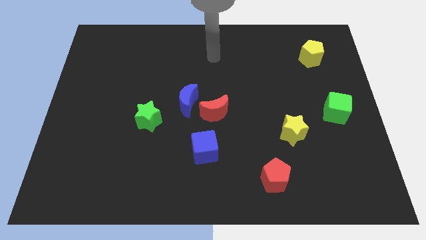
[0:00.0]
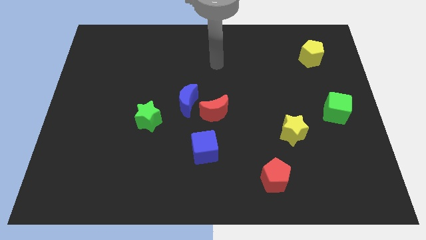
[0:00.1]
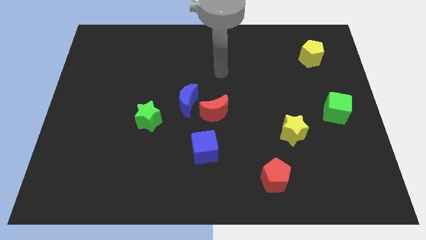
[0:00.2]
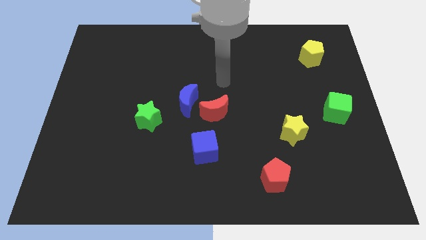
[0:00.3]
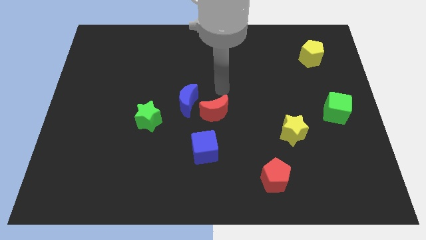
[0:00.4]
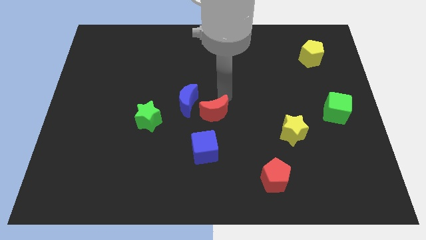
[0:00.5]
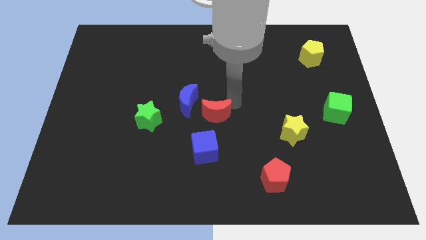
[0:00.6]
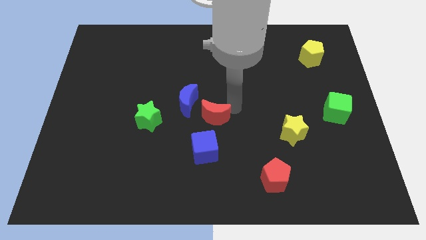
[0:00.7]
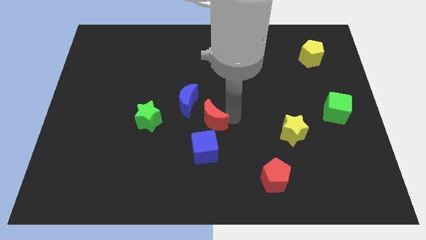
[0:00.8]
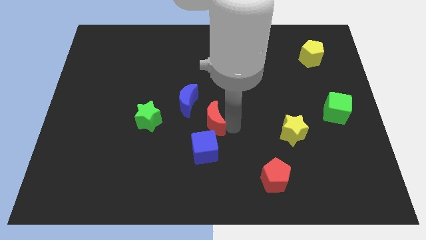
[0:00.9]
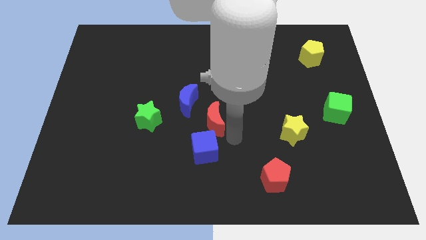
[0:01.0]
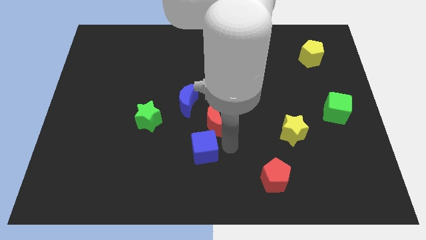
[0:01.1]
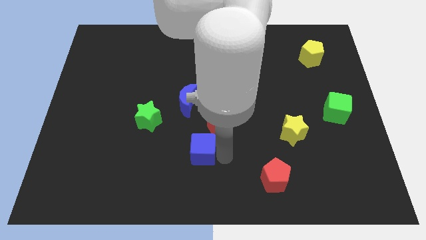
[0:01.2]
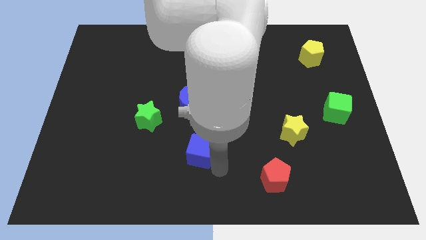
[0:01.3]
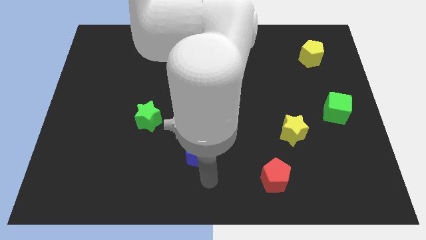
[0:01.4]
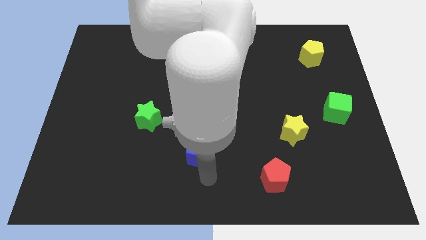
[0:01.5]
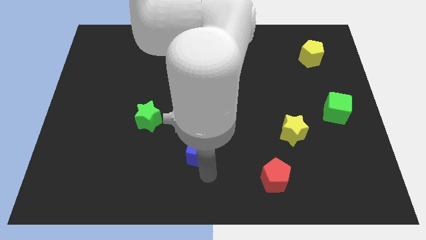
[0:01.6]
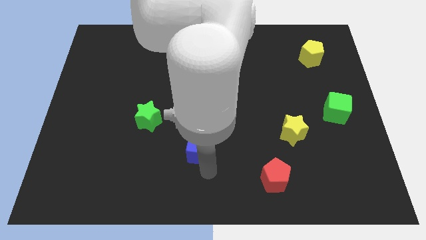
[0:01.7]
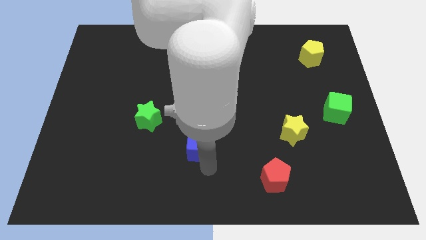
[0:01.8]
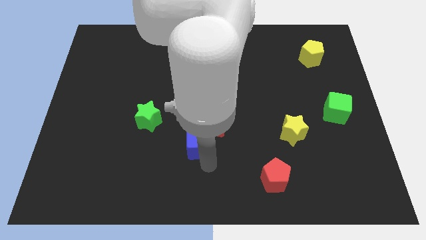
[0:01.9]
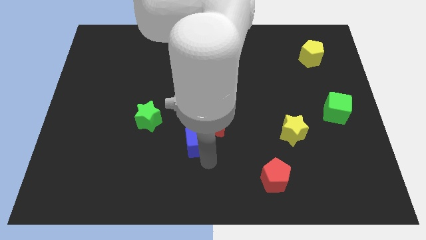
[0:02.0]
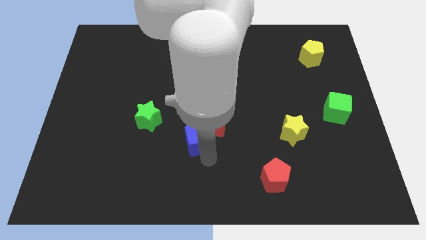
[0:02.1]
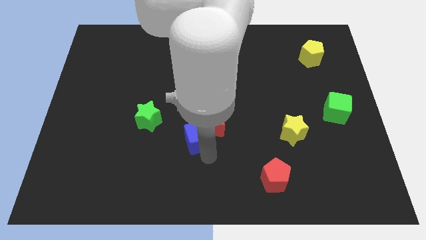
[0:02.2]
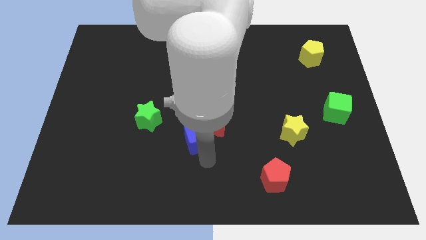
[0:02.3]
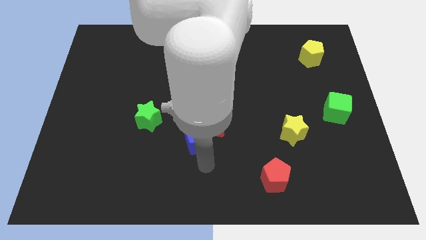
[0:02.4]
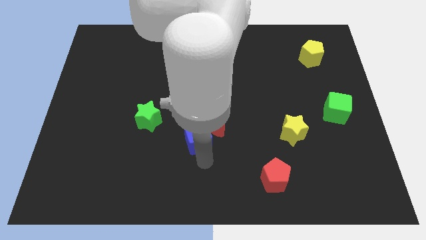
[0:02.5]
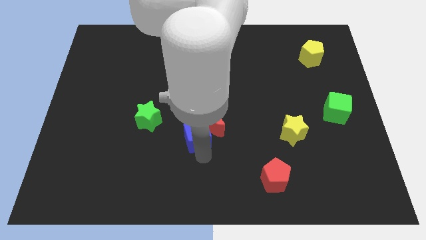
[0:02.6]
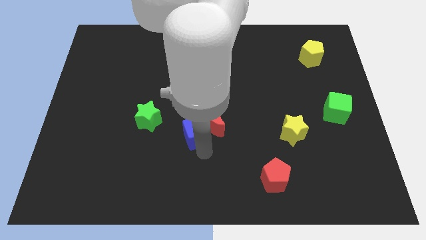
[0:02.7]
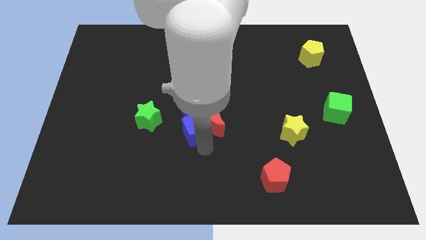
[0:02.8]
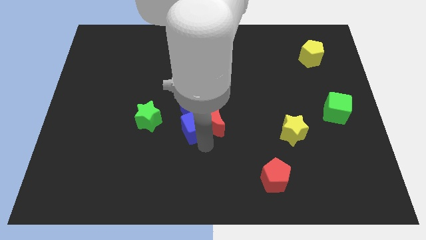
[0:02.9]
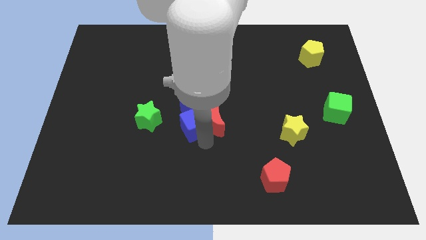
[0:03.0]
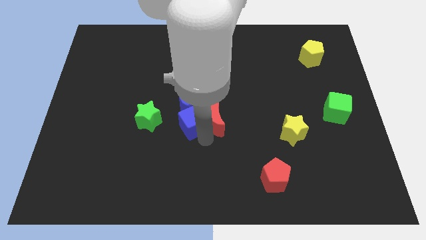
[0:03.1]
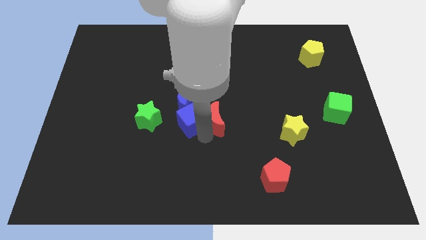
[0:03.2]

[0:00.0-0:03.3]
move the blue cube slightly upwards and then to the left

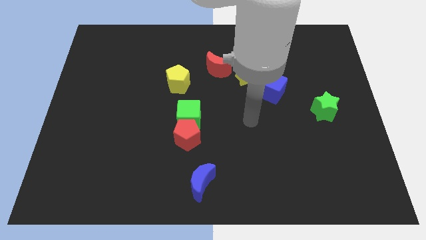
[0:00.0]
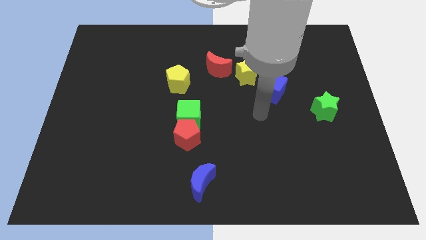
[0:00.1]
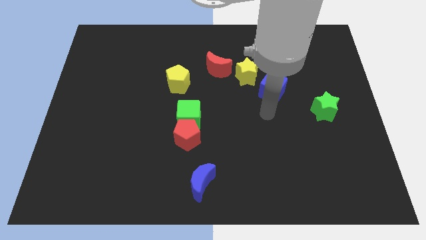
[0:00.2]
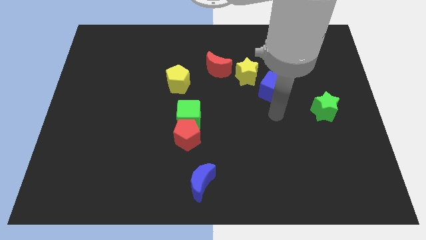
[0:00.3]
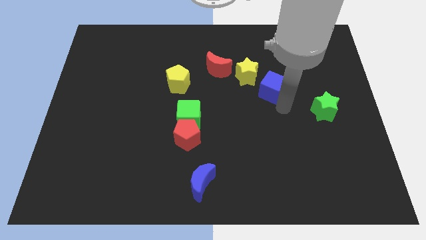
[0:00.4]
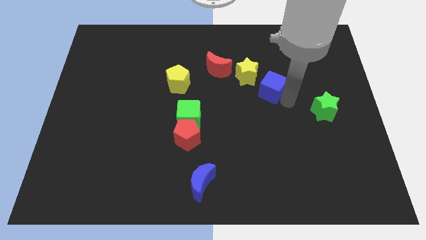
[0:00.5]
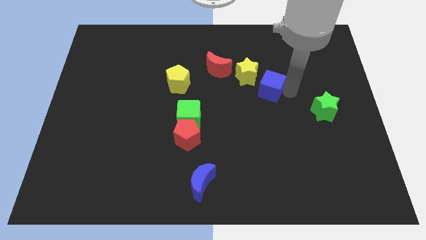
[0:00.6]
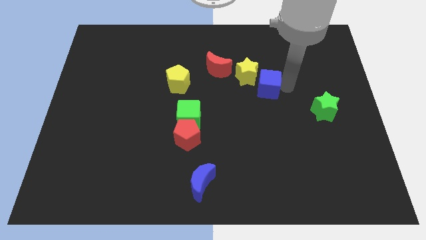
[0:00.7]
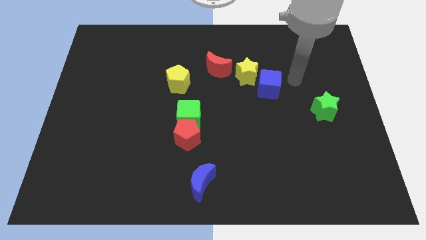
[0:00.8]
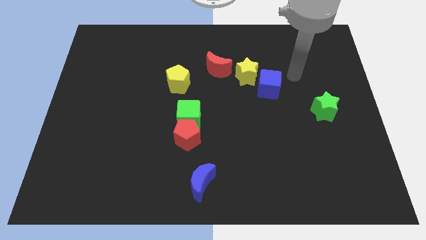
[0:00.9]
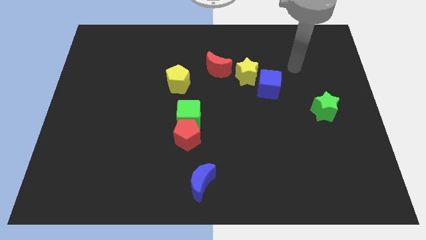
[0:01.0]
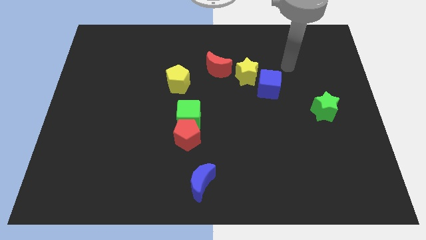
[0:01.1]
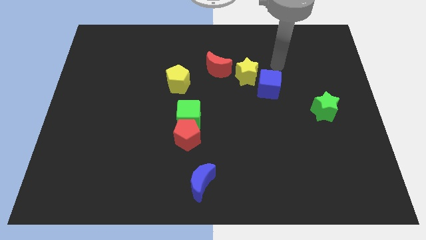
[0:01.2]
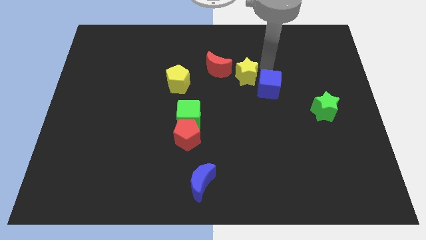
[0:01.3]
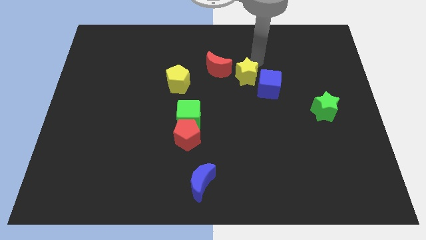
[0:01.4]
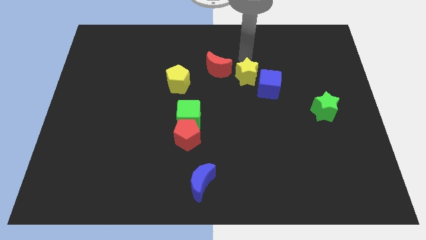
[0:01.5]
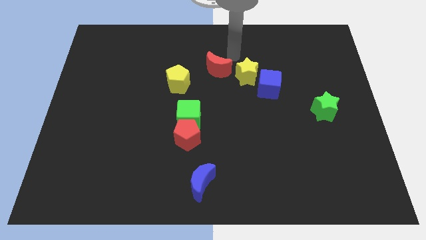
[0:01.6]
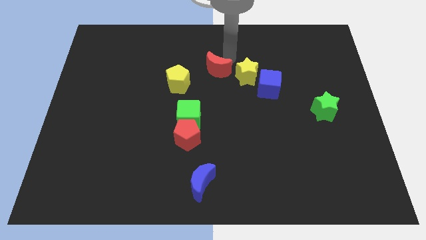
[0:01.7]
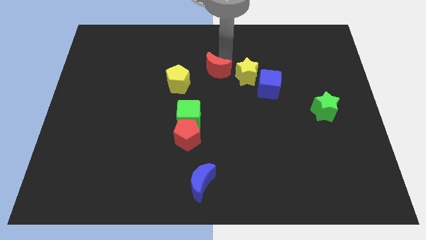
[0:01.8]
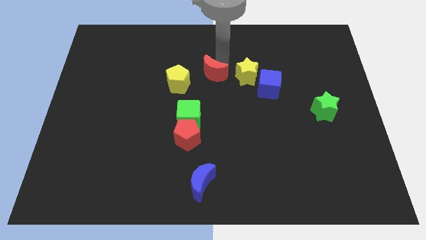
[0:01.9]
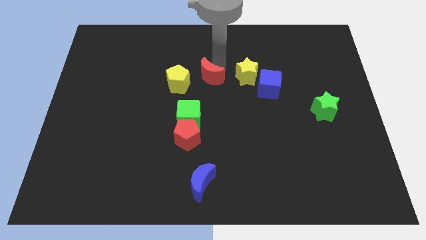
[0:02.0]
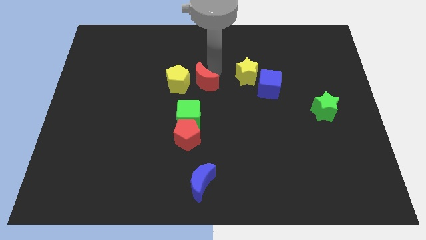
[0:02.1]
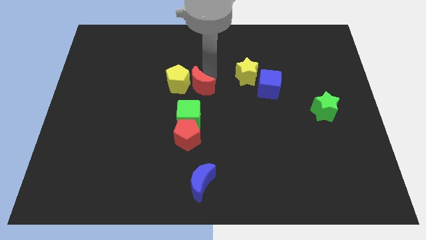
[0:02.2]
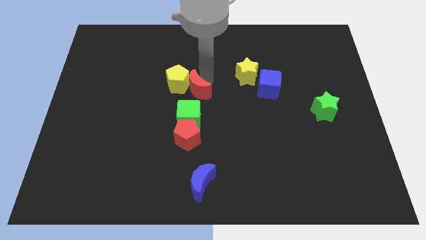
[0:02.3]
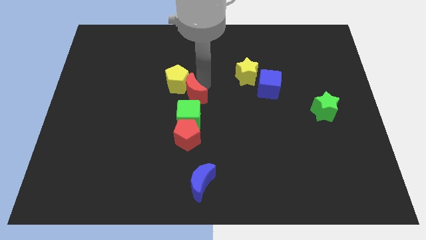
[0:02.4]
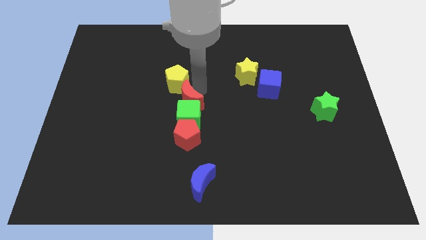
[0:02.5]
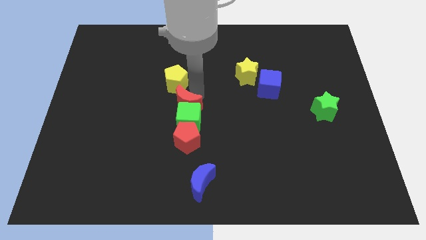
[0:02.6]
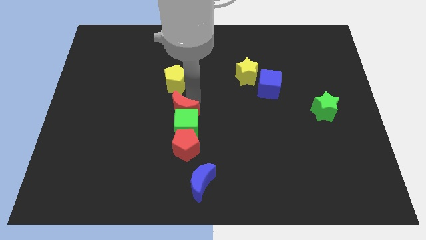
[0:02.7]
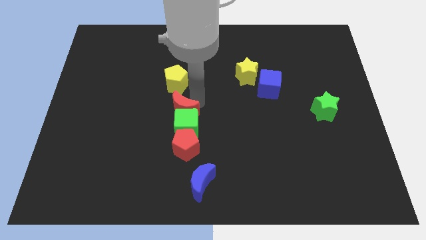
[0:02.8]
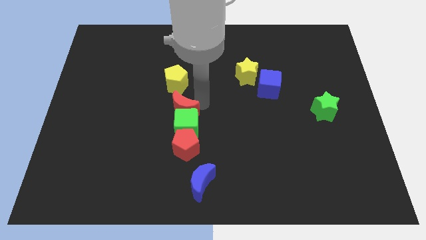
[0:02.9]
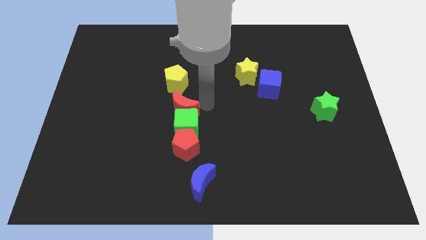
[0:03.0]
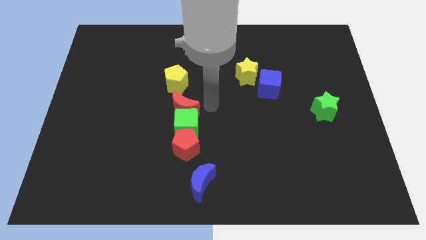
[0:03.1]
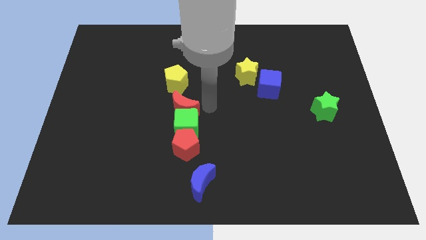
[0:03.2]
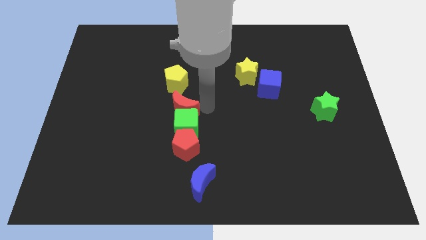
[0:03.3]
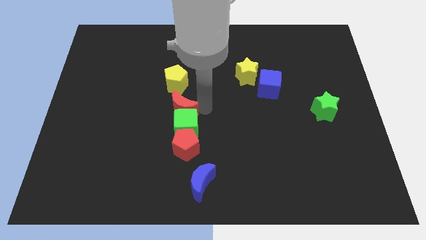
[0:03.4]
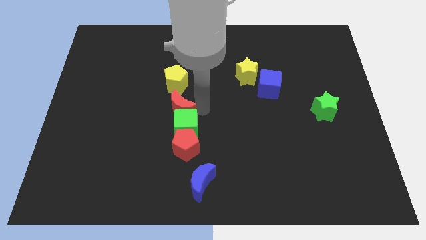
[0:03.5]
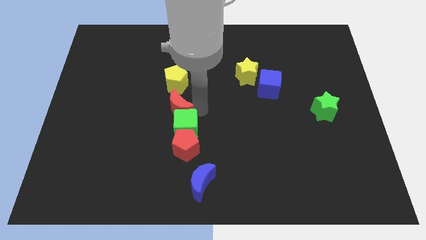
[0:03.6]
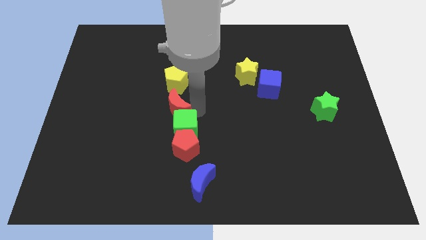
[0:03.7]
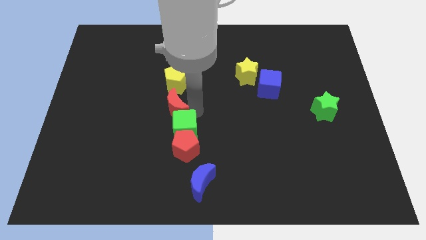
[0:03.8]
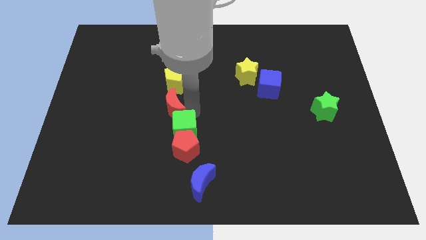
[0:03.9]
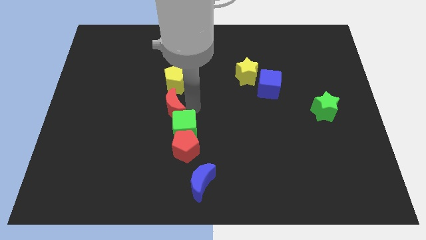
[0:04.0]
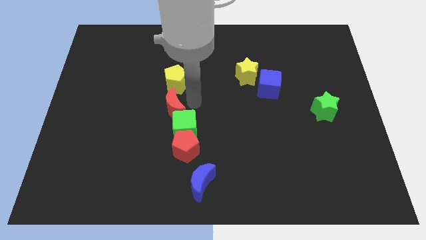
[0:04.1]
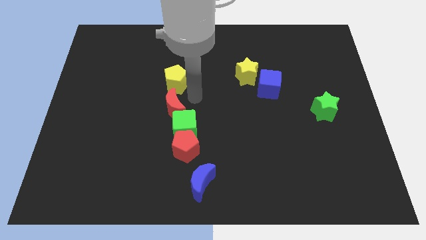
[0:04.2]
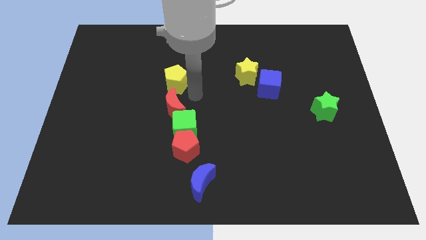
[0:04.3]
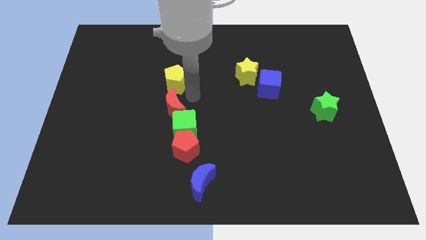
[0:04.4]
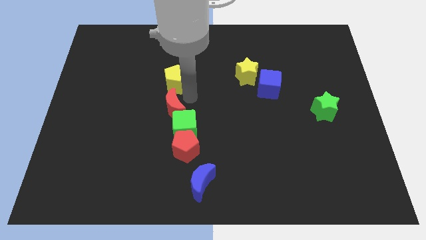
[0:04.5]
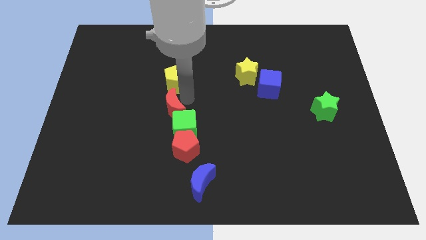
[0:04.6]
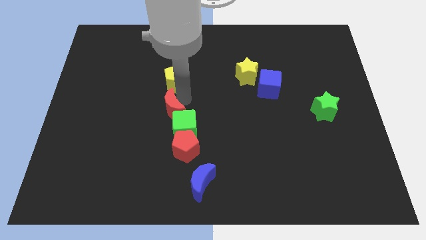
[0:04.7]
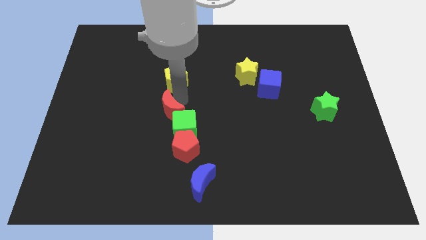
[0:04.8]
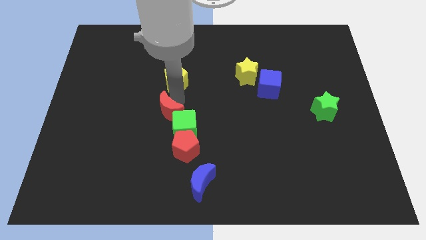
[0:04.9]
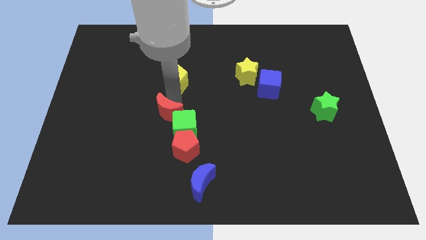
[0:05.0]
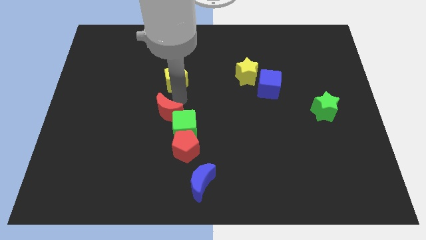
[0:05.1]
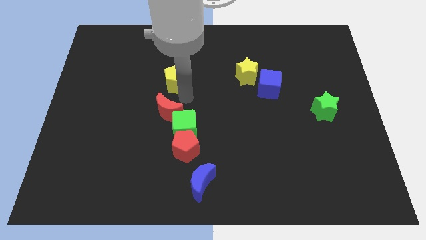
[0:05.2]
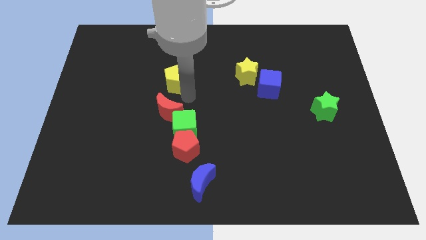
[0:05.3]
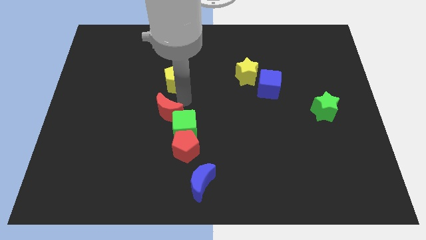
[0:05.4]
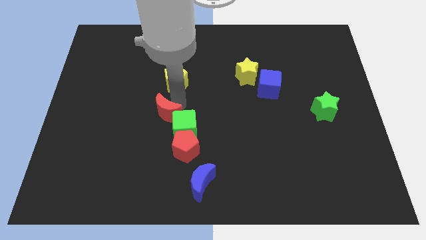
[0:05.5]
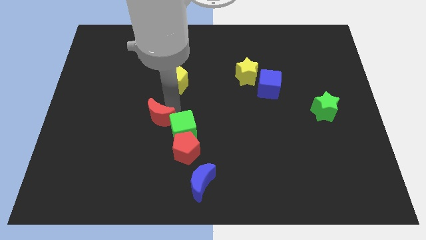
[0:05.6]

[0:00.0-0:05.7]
slide the red moon down and then to the left
